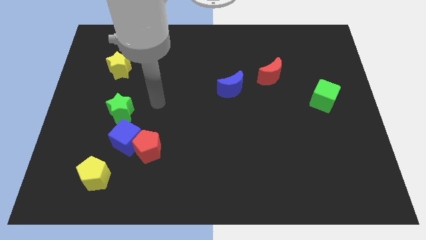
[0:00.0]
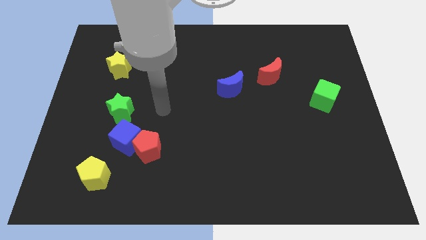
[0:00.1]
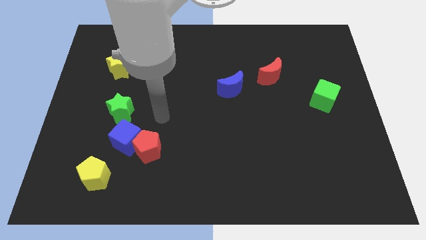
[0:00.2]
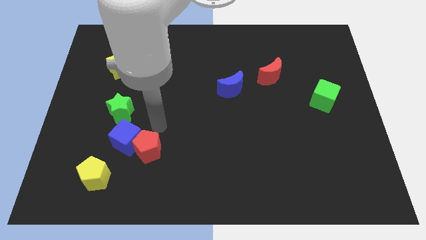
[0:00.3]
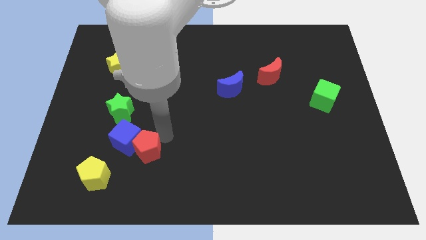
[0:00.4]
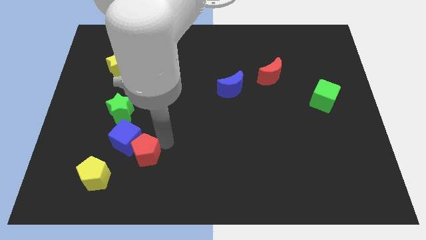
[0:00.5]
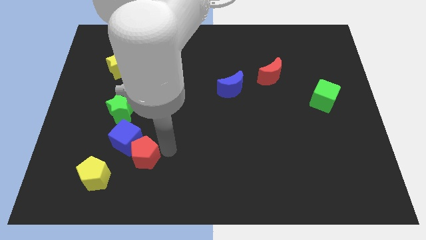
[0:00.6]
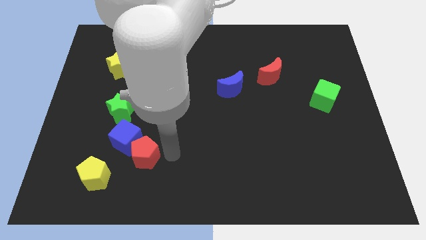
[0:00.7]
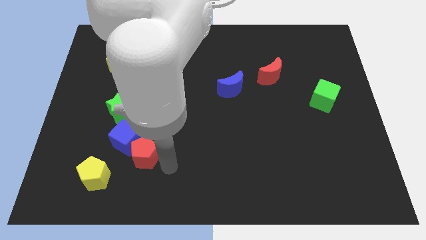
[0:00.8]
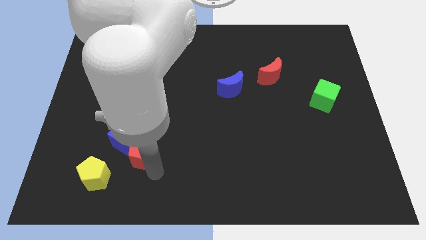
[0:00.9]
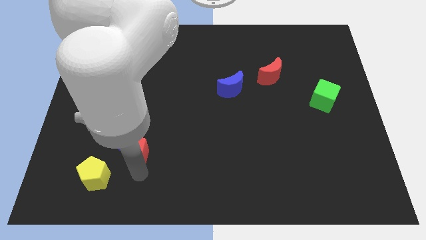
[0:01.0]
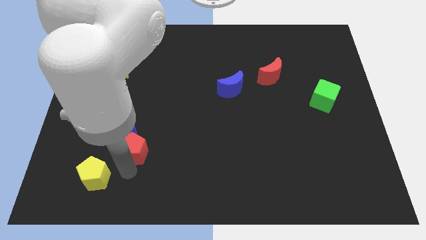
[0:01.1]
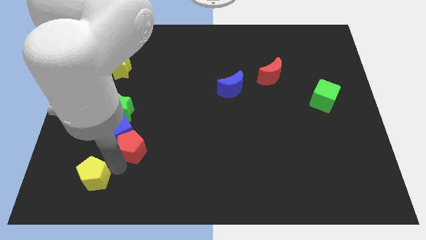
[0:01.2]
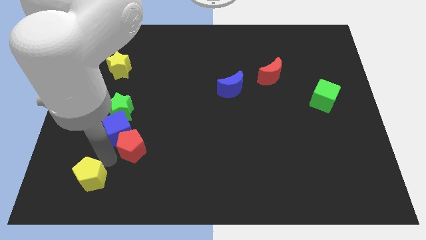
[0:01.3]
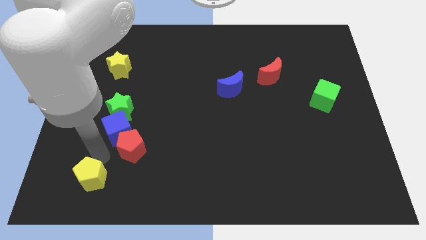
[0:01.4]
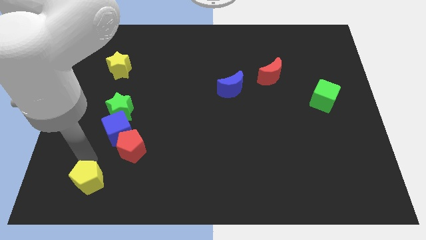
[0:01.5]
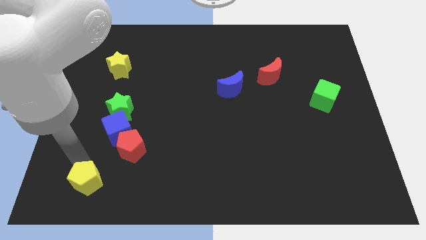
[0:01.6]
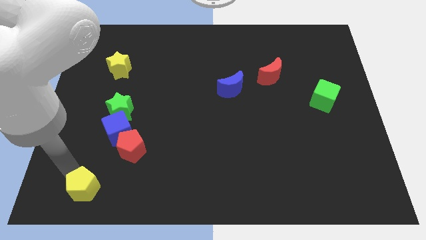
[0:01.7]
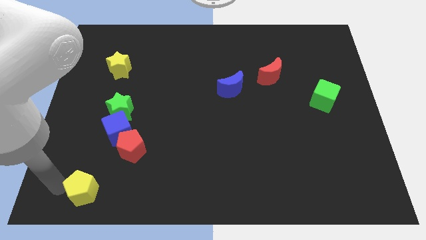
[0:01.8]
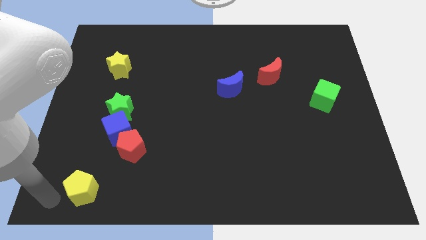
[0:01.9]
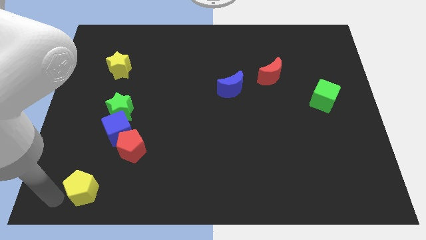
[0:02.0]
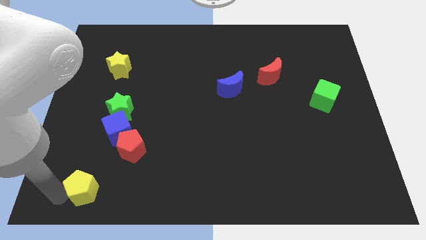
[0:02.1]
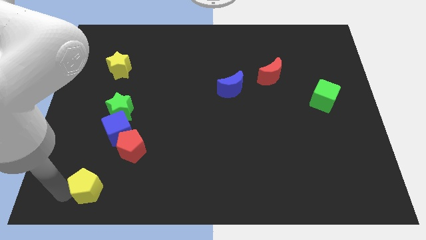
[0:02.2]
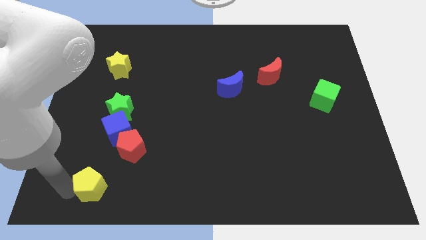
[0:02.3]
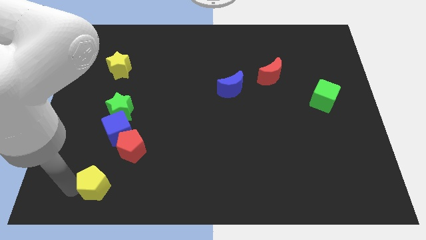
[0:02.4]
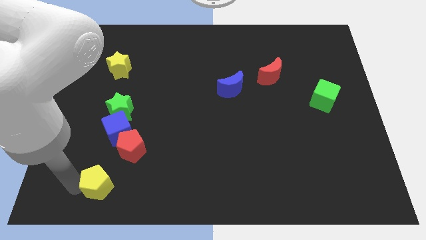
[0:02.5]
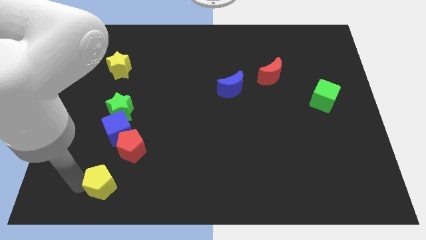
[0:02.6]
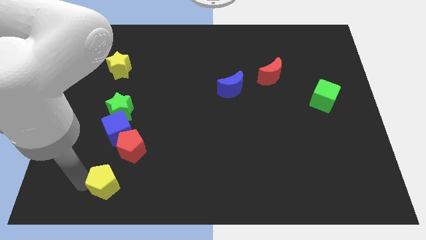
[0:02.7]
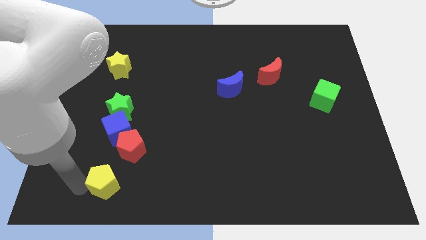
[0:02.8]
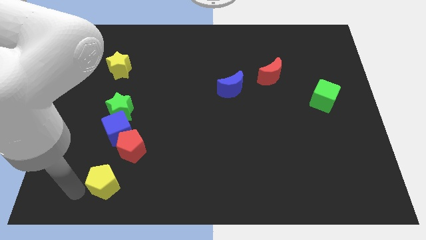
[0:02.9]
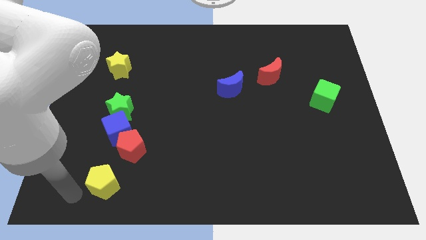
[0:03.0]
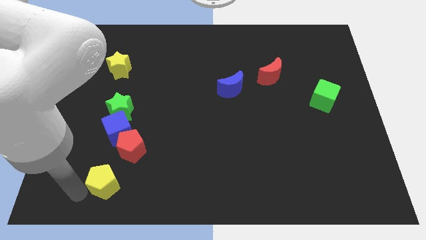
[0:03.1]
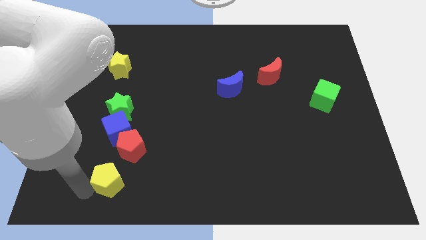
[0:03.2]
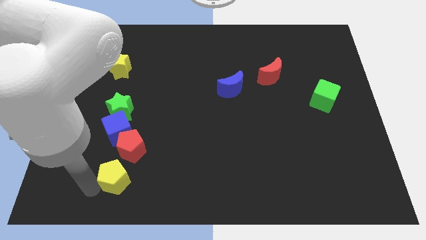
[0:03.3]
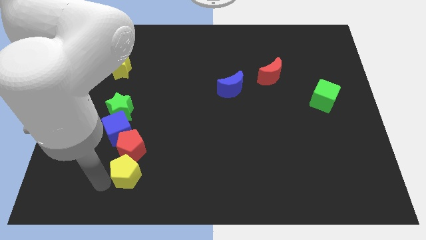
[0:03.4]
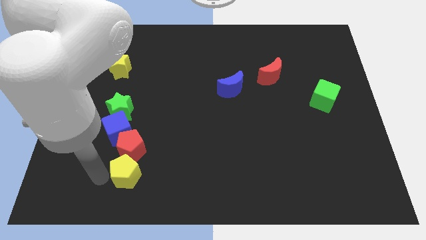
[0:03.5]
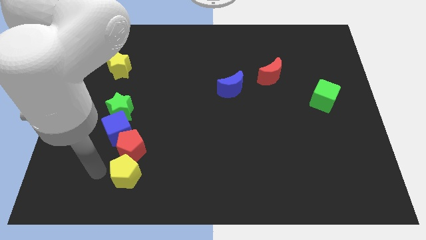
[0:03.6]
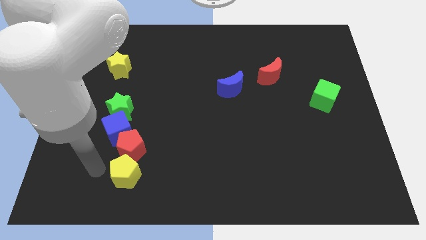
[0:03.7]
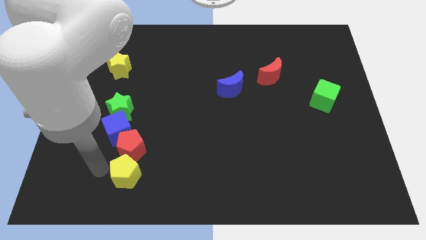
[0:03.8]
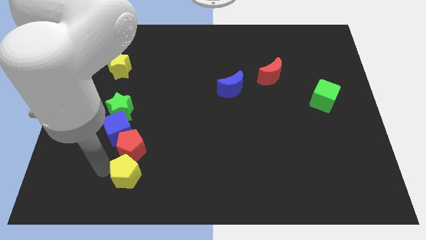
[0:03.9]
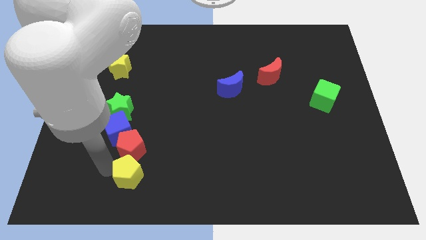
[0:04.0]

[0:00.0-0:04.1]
slide the yellow pentagon slightly right

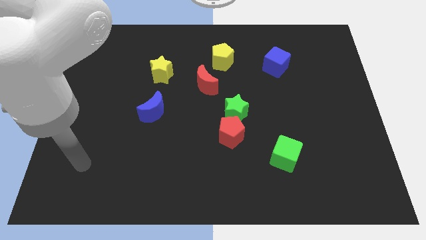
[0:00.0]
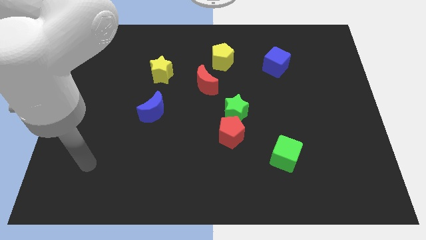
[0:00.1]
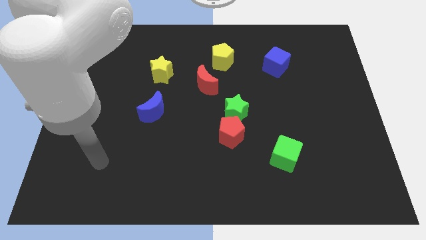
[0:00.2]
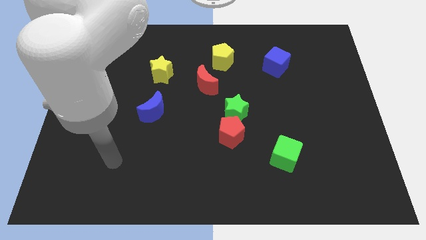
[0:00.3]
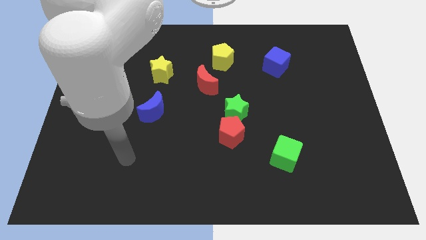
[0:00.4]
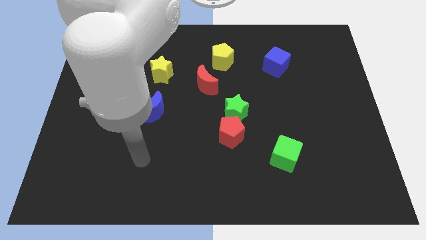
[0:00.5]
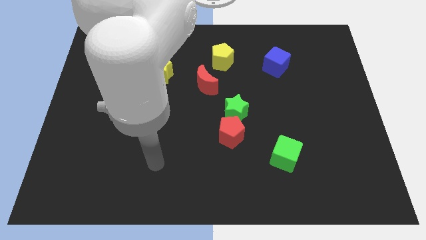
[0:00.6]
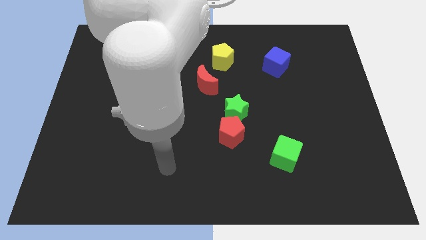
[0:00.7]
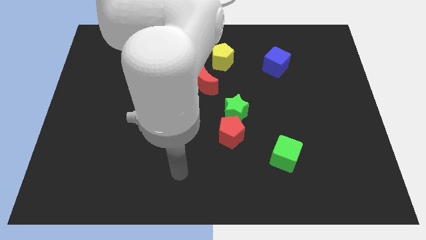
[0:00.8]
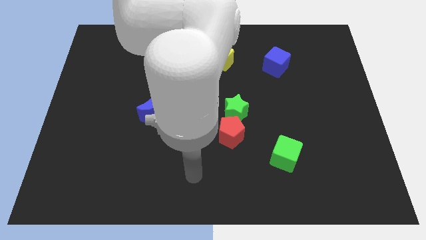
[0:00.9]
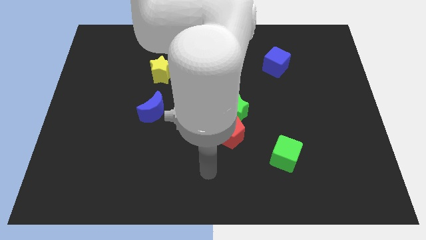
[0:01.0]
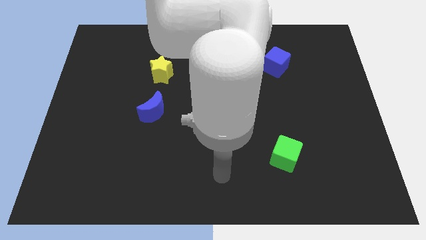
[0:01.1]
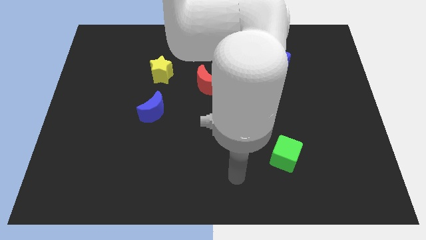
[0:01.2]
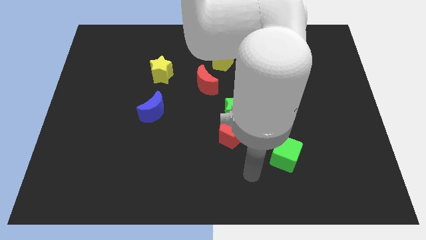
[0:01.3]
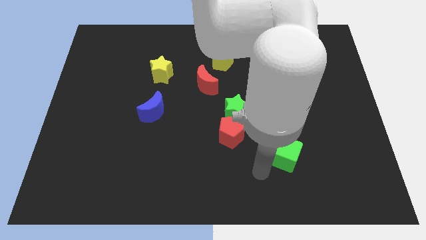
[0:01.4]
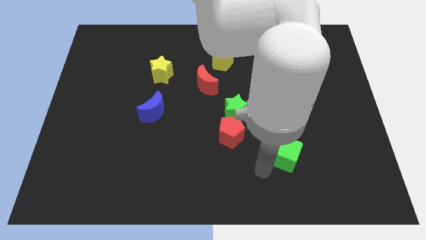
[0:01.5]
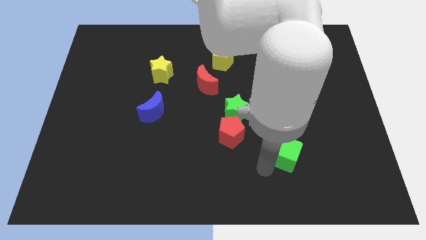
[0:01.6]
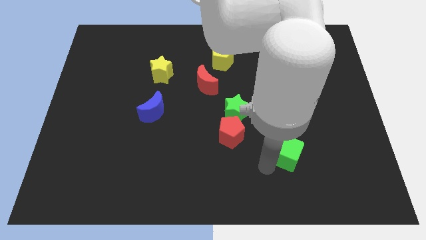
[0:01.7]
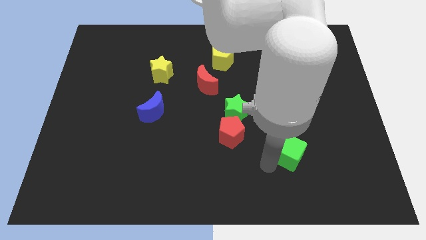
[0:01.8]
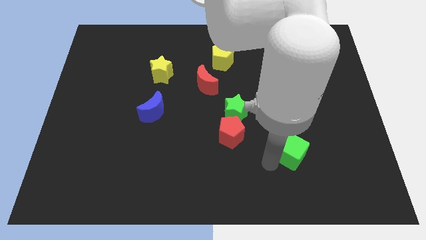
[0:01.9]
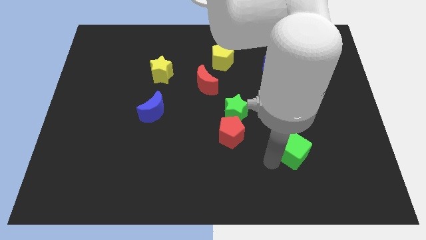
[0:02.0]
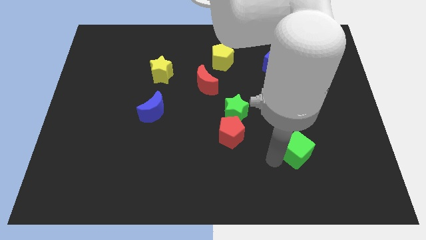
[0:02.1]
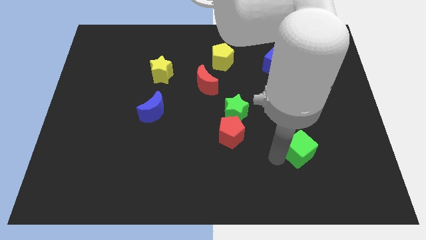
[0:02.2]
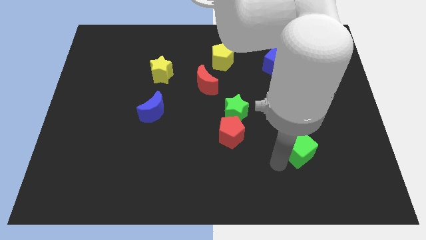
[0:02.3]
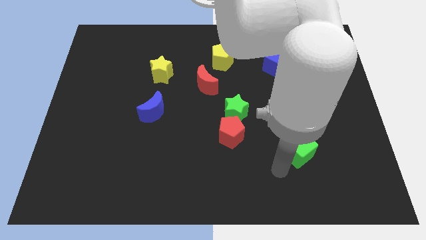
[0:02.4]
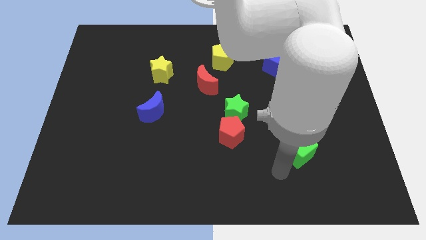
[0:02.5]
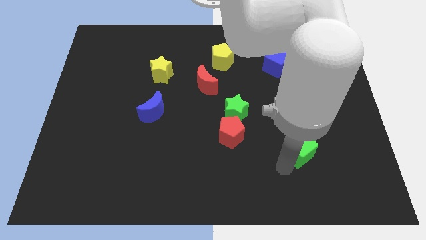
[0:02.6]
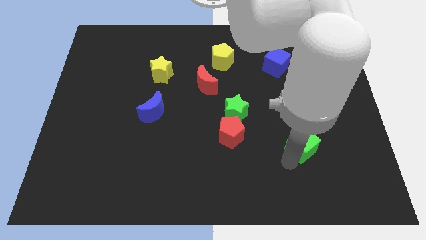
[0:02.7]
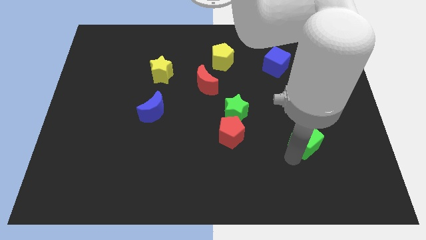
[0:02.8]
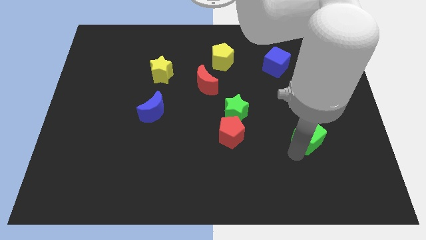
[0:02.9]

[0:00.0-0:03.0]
slightly slide the green cube upwards and to the right diagonally

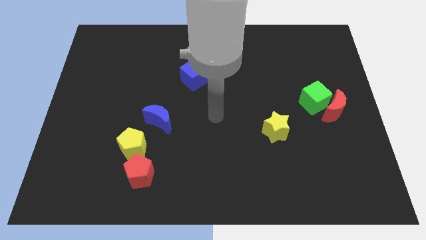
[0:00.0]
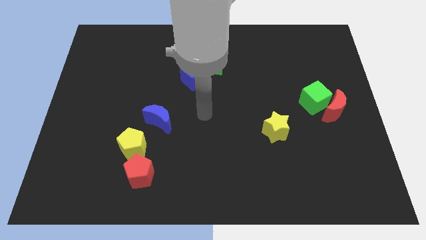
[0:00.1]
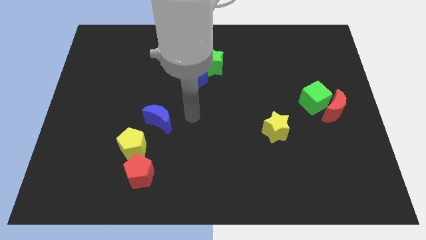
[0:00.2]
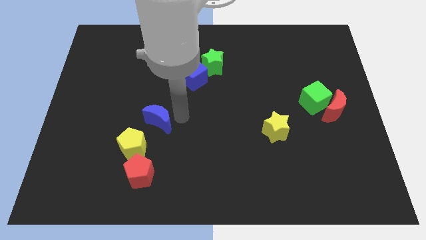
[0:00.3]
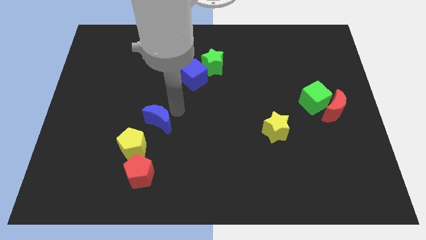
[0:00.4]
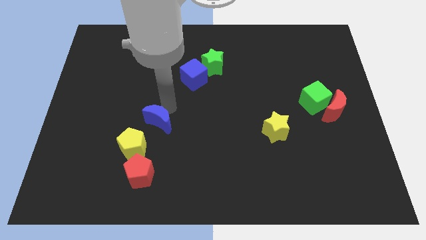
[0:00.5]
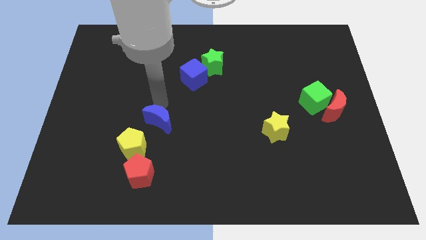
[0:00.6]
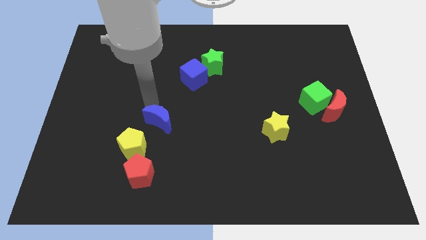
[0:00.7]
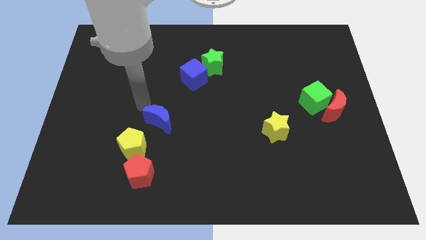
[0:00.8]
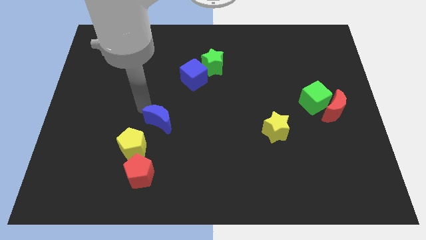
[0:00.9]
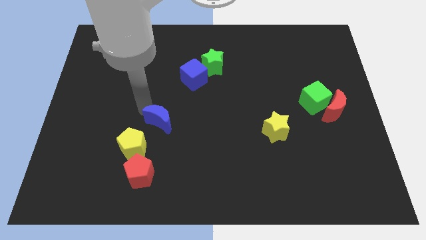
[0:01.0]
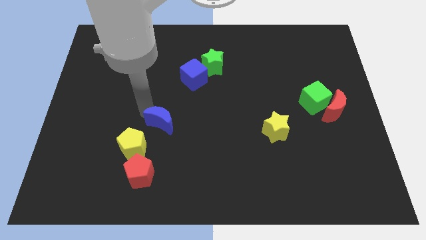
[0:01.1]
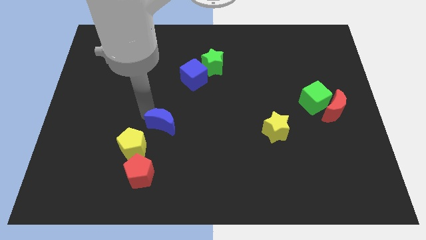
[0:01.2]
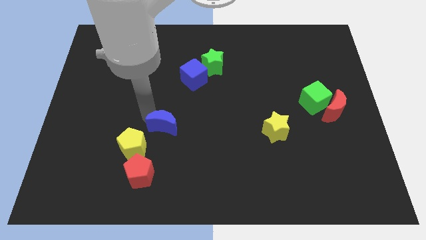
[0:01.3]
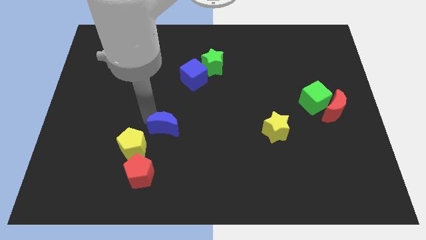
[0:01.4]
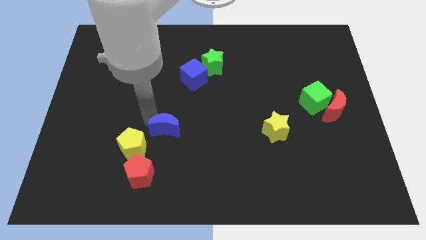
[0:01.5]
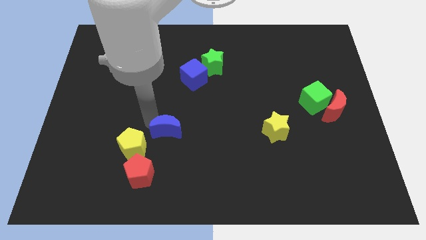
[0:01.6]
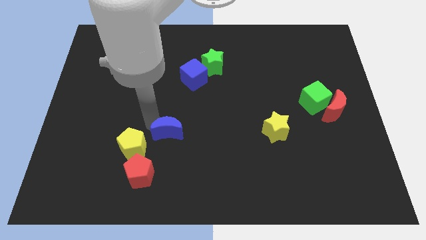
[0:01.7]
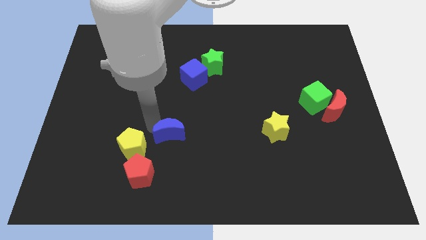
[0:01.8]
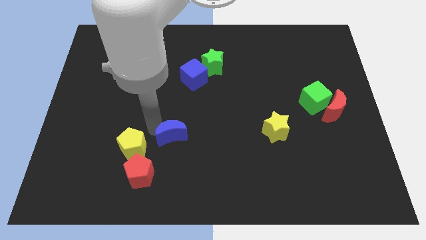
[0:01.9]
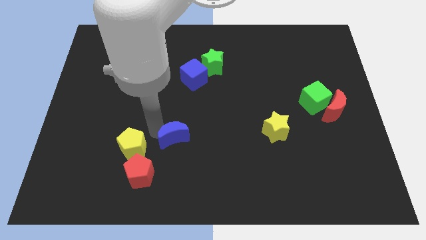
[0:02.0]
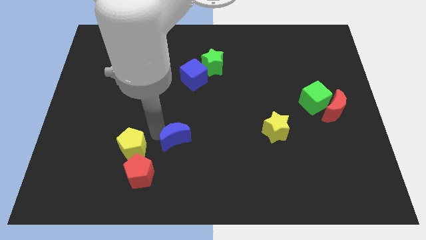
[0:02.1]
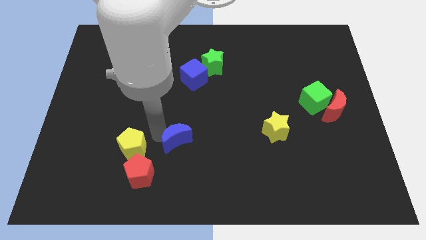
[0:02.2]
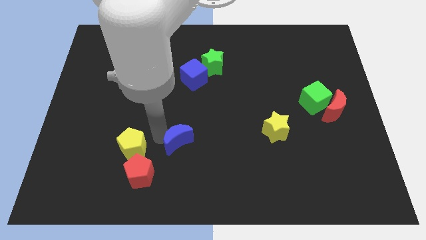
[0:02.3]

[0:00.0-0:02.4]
slightly slide the blue moon down and right
